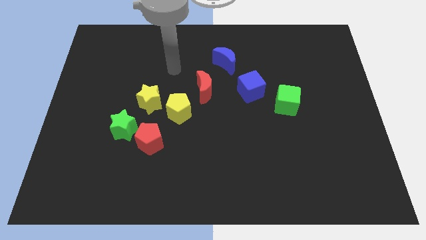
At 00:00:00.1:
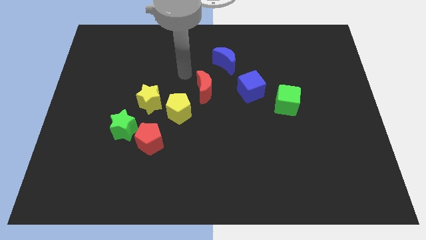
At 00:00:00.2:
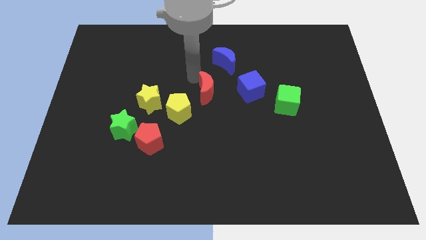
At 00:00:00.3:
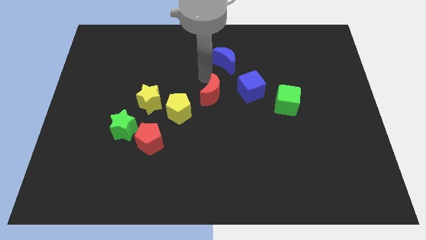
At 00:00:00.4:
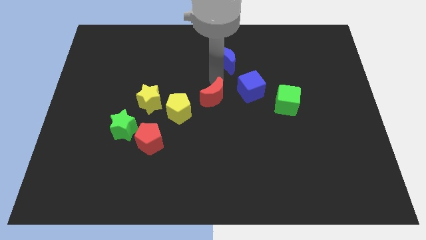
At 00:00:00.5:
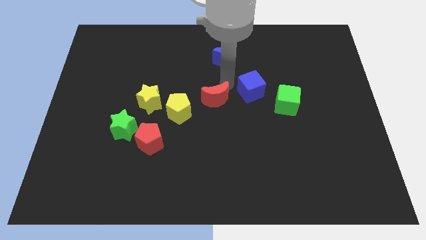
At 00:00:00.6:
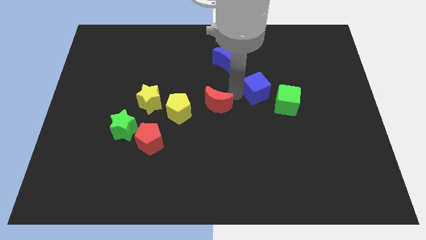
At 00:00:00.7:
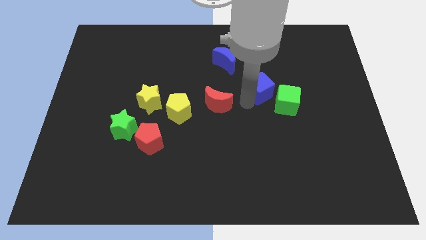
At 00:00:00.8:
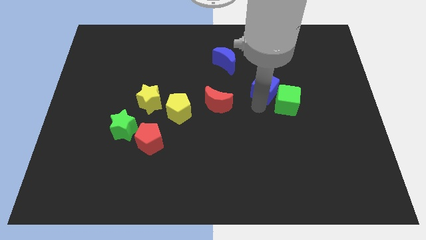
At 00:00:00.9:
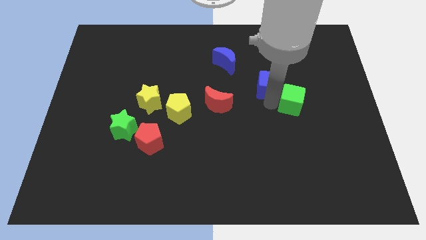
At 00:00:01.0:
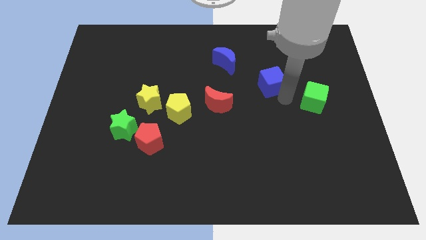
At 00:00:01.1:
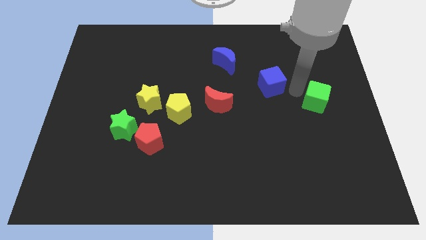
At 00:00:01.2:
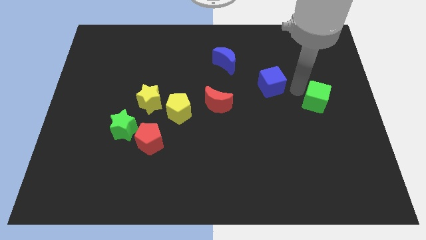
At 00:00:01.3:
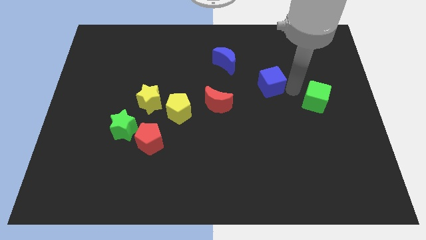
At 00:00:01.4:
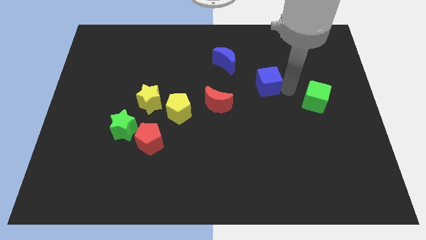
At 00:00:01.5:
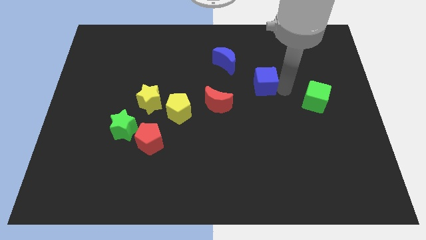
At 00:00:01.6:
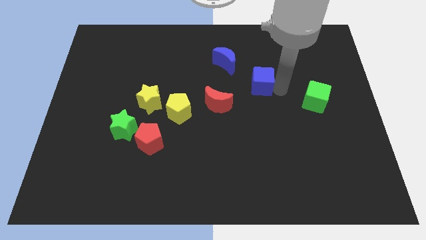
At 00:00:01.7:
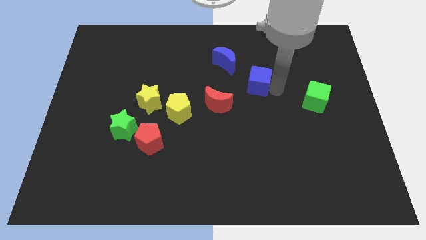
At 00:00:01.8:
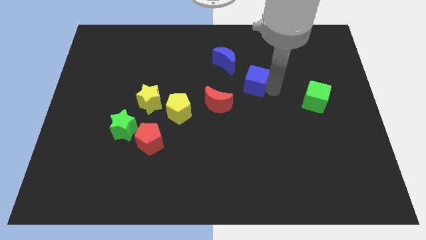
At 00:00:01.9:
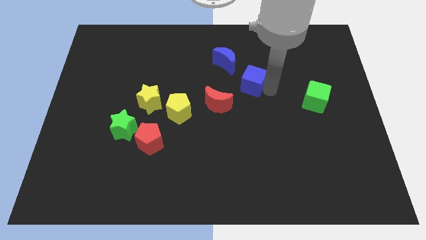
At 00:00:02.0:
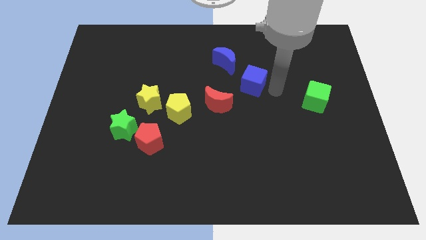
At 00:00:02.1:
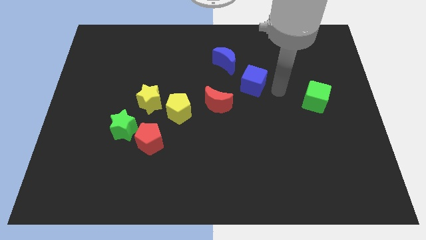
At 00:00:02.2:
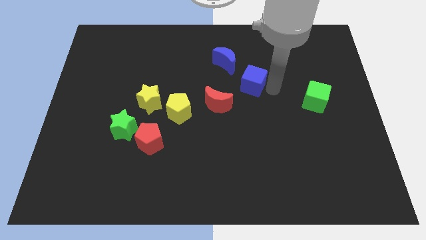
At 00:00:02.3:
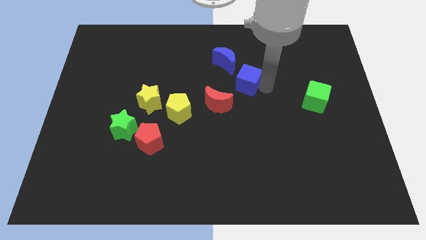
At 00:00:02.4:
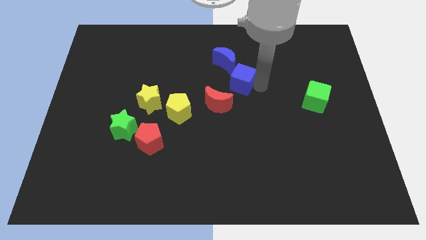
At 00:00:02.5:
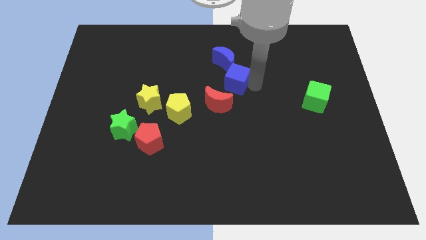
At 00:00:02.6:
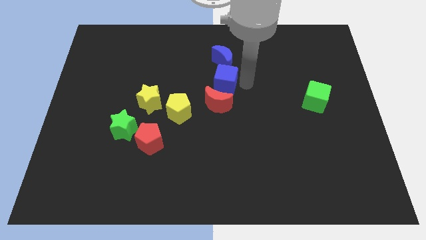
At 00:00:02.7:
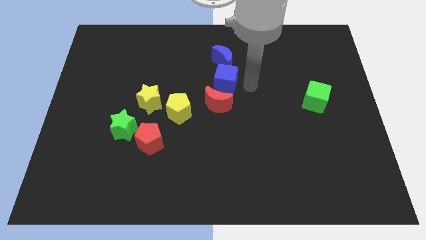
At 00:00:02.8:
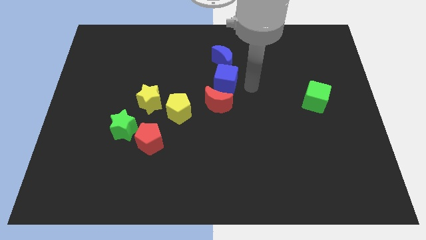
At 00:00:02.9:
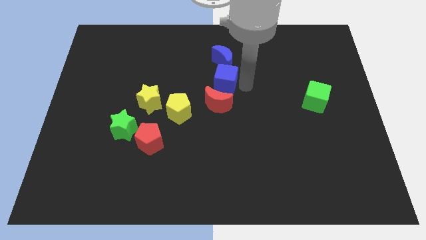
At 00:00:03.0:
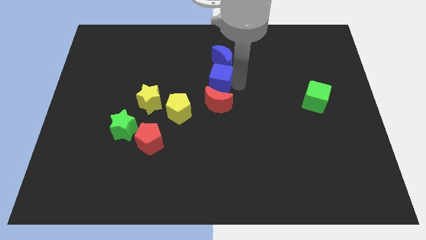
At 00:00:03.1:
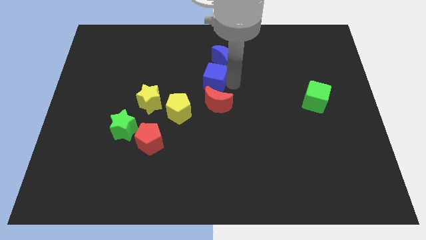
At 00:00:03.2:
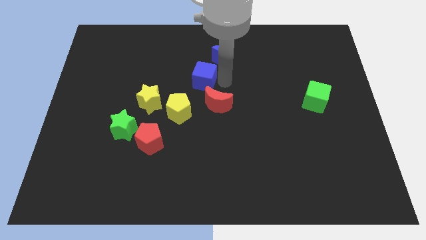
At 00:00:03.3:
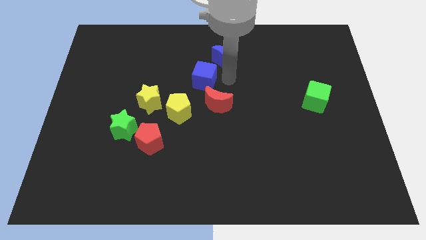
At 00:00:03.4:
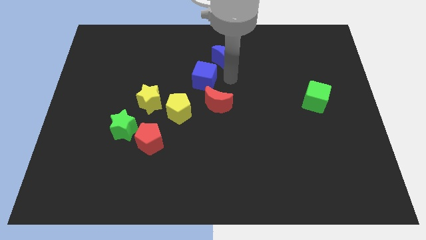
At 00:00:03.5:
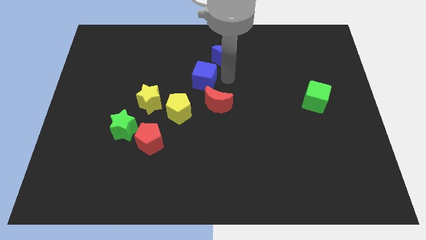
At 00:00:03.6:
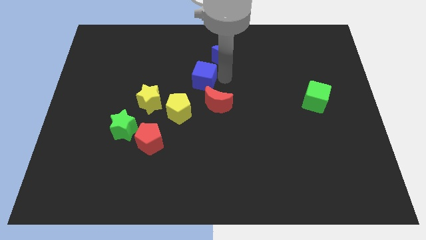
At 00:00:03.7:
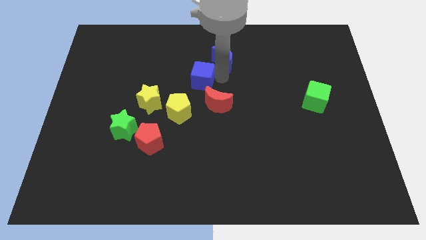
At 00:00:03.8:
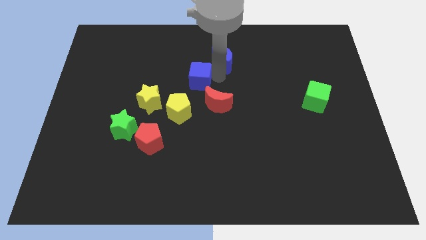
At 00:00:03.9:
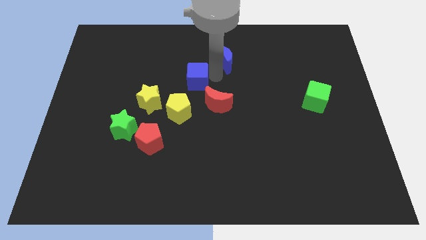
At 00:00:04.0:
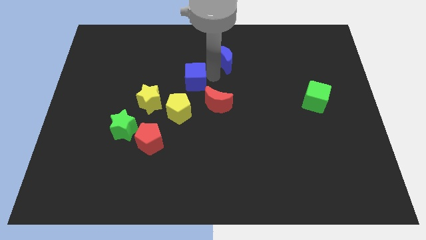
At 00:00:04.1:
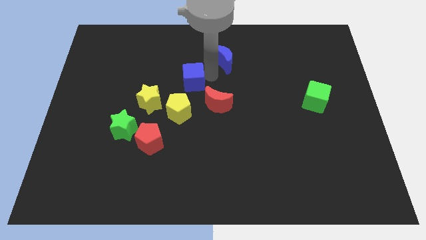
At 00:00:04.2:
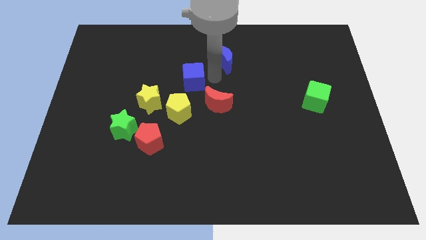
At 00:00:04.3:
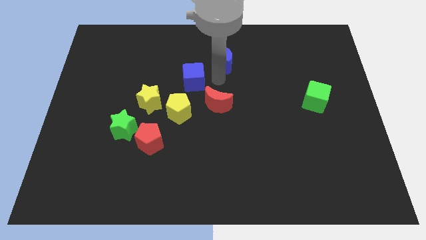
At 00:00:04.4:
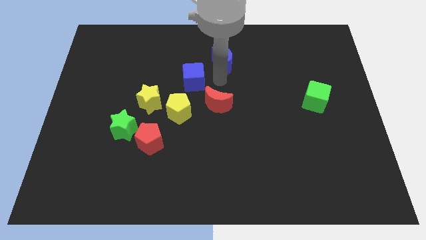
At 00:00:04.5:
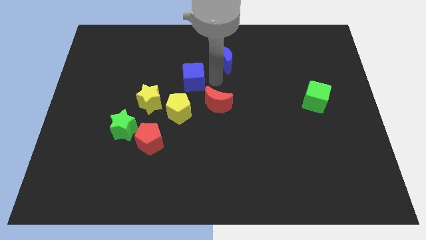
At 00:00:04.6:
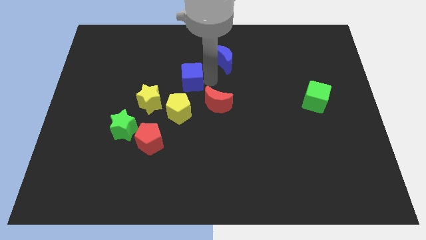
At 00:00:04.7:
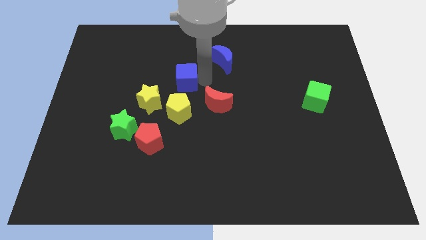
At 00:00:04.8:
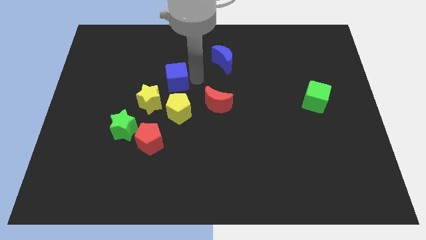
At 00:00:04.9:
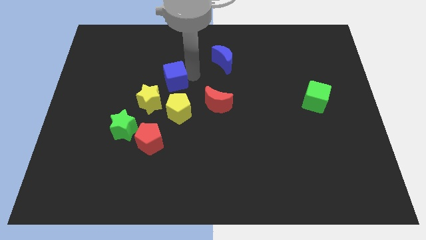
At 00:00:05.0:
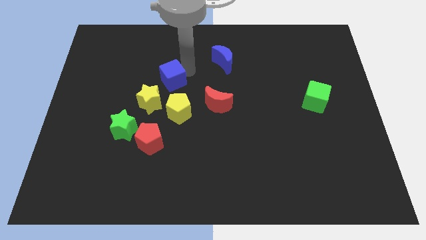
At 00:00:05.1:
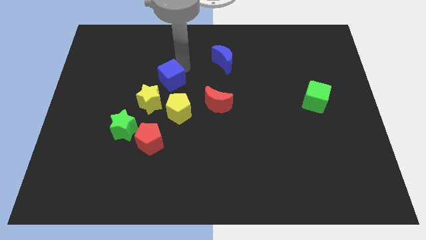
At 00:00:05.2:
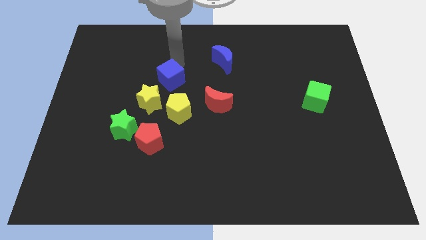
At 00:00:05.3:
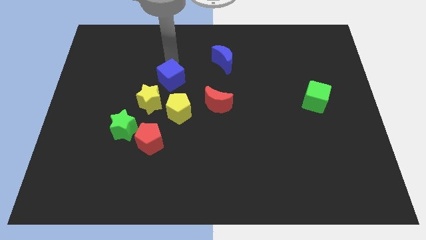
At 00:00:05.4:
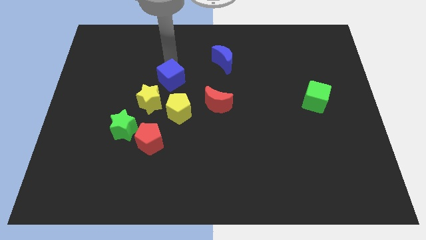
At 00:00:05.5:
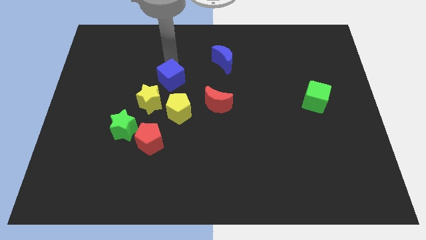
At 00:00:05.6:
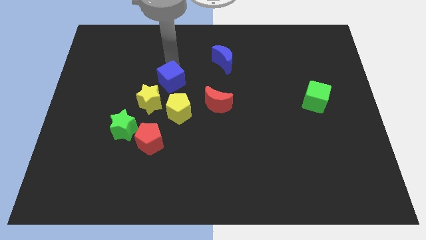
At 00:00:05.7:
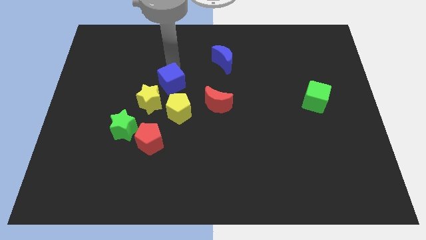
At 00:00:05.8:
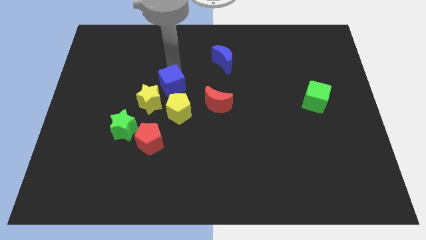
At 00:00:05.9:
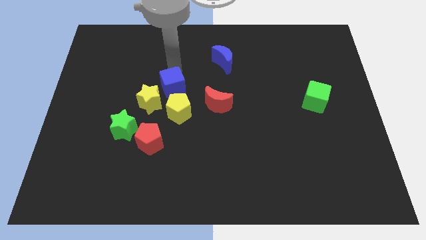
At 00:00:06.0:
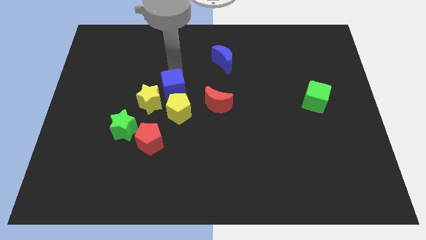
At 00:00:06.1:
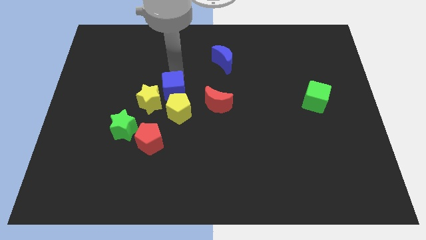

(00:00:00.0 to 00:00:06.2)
slide the blue cube just left of the red moon

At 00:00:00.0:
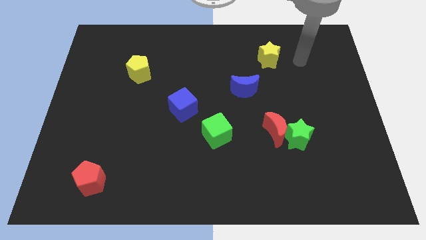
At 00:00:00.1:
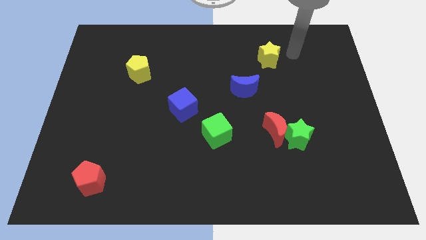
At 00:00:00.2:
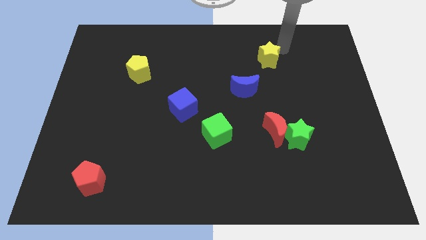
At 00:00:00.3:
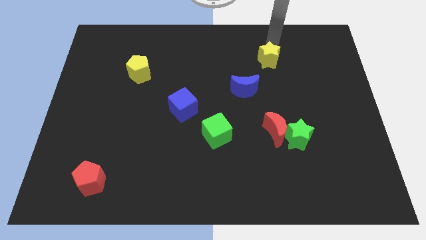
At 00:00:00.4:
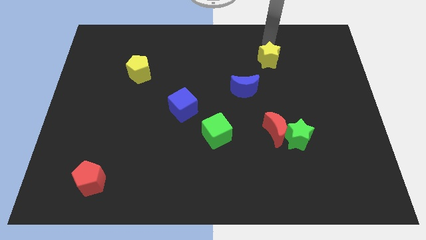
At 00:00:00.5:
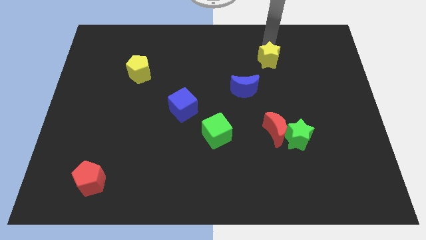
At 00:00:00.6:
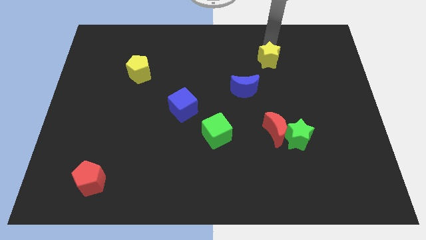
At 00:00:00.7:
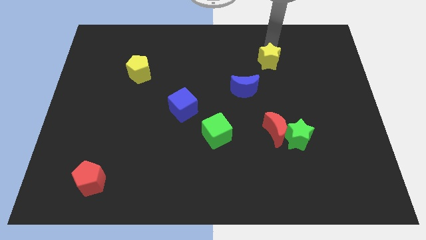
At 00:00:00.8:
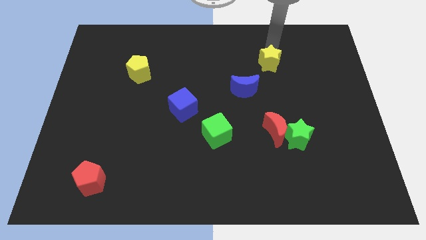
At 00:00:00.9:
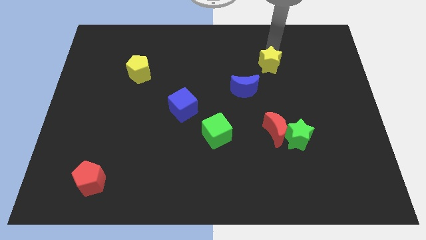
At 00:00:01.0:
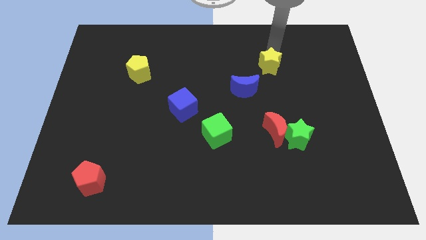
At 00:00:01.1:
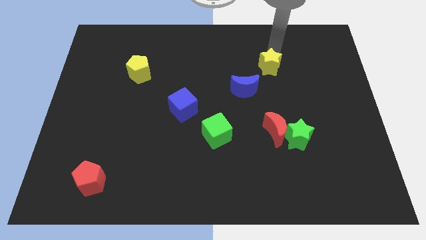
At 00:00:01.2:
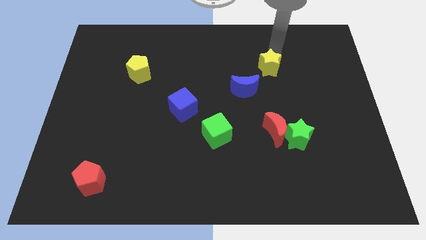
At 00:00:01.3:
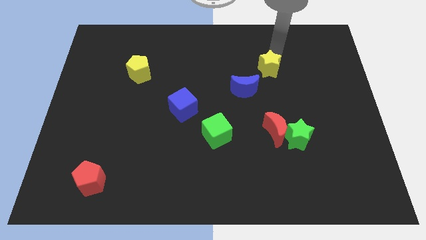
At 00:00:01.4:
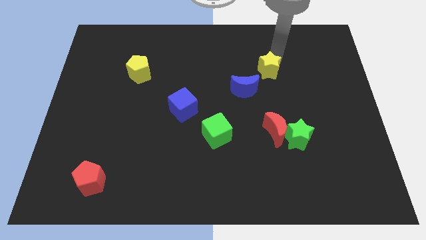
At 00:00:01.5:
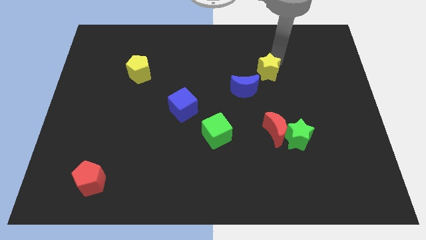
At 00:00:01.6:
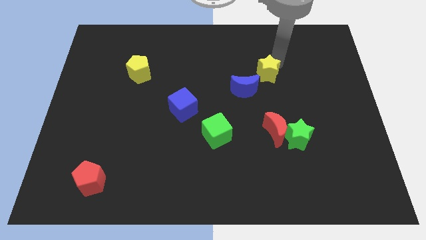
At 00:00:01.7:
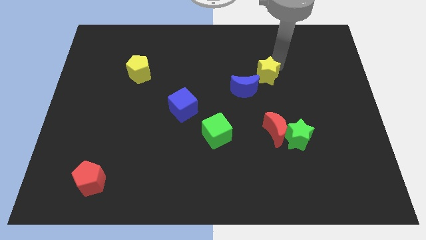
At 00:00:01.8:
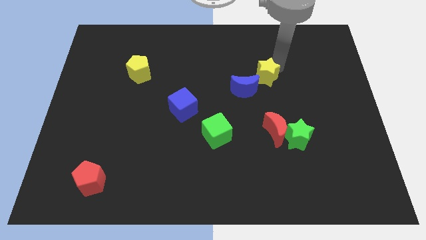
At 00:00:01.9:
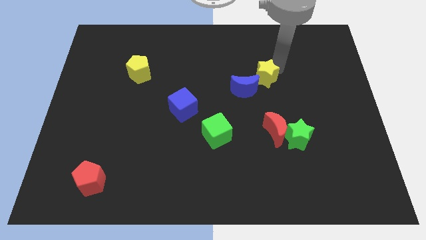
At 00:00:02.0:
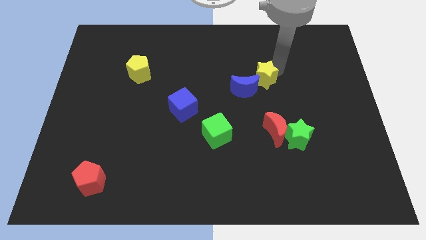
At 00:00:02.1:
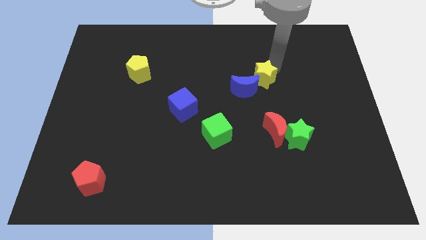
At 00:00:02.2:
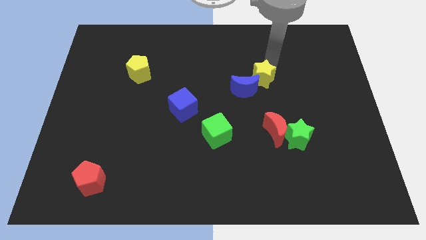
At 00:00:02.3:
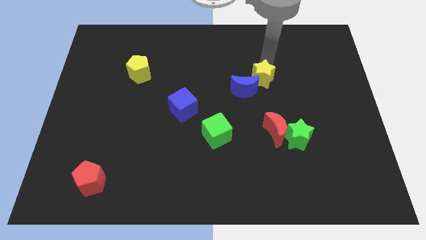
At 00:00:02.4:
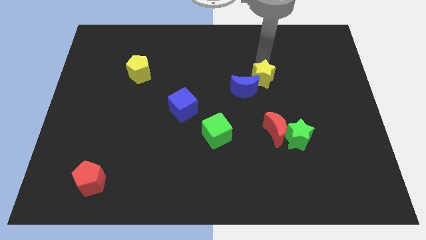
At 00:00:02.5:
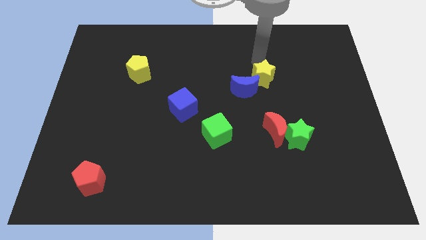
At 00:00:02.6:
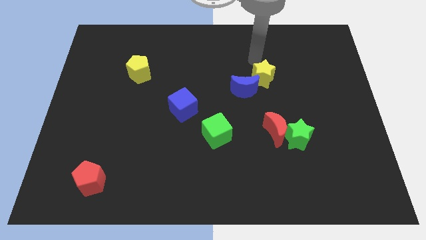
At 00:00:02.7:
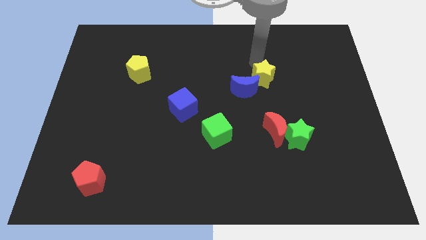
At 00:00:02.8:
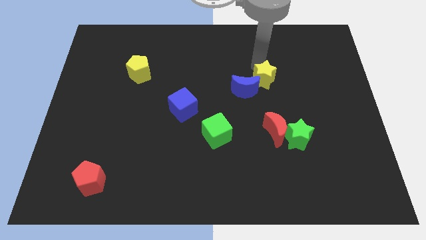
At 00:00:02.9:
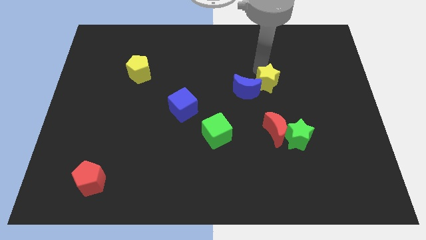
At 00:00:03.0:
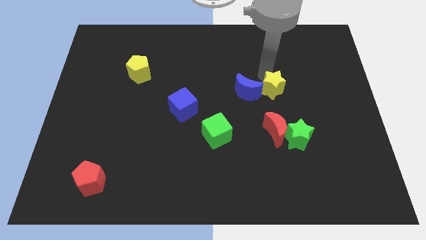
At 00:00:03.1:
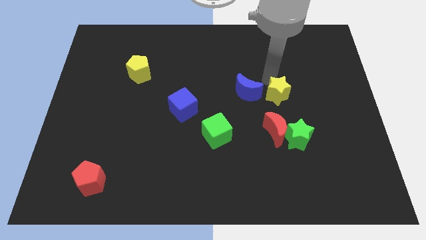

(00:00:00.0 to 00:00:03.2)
slide the yellow star diagonally down and to the right of the blue moon
